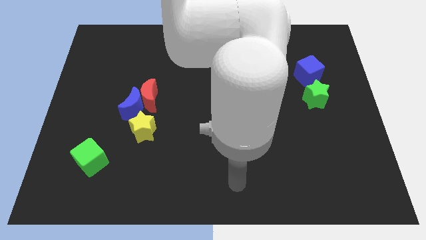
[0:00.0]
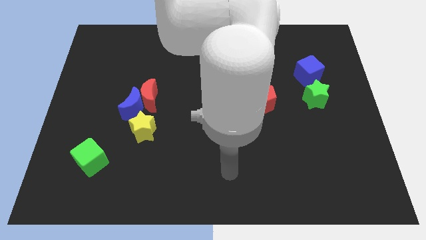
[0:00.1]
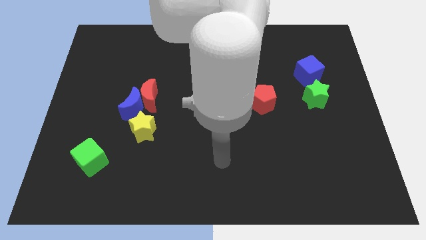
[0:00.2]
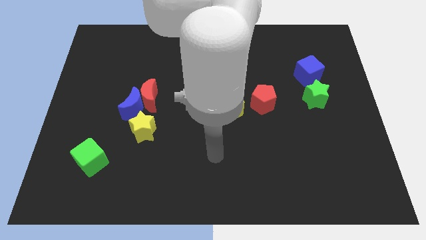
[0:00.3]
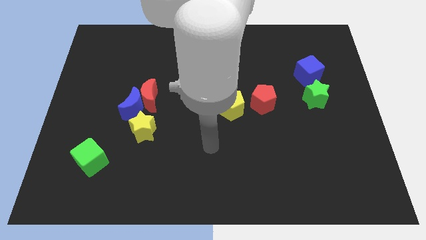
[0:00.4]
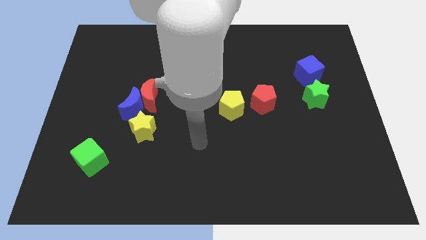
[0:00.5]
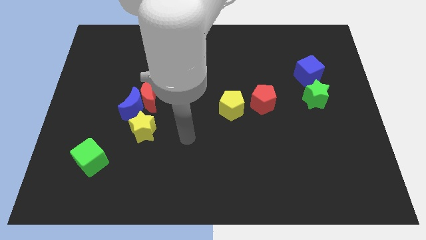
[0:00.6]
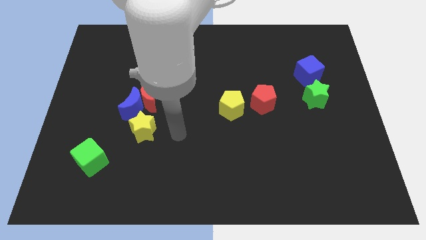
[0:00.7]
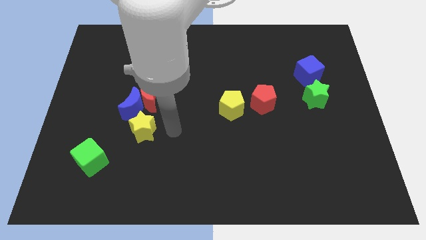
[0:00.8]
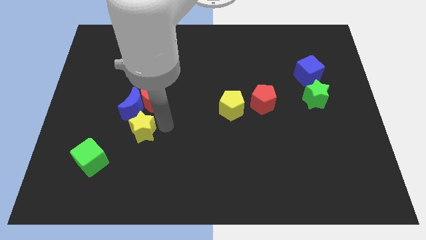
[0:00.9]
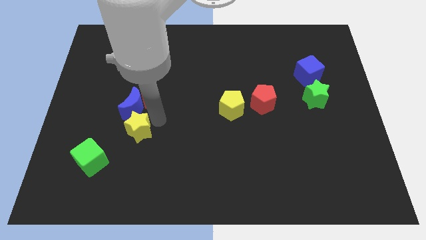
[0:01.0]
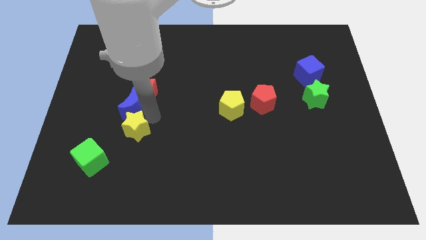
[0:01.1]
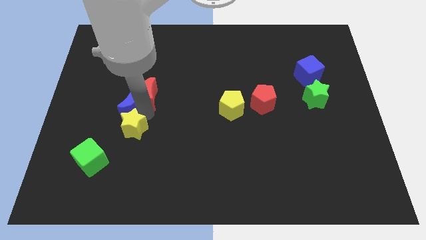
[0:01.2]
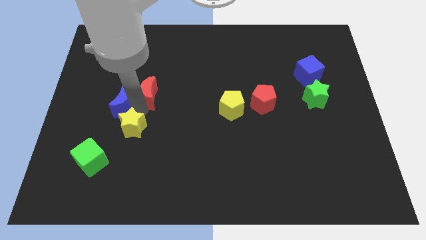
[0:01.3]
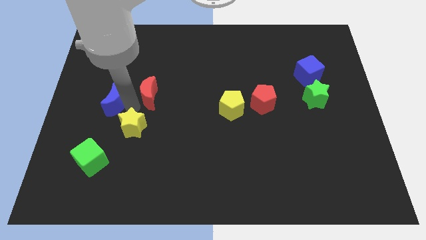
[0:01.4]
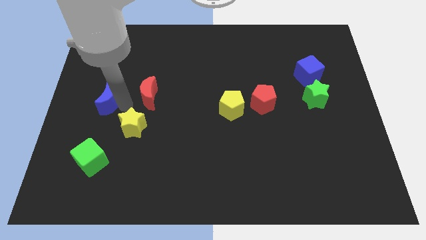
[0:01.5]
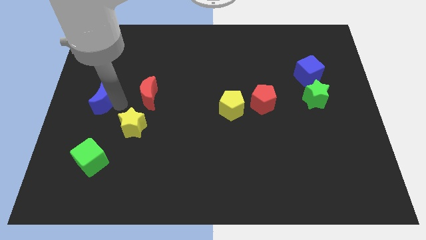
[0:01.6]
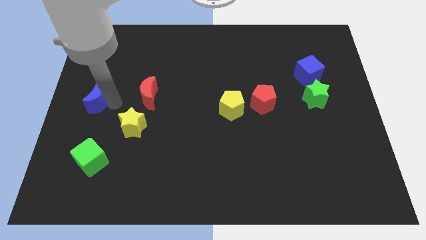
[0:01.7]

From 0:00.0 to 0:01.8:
pull the blue moon apart from the red moon and yellow star

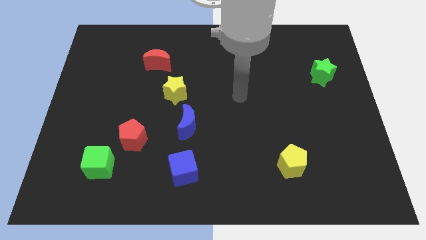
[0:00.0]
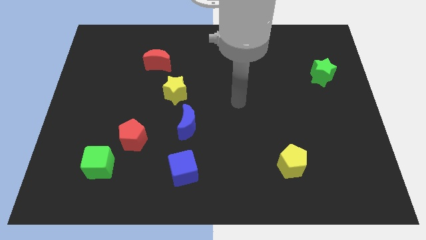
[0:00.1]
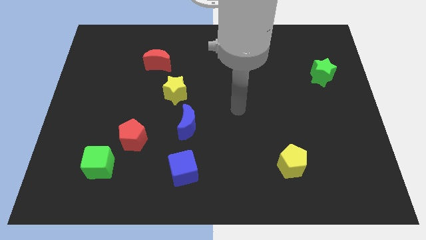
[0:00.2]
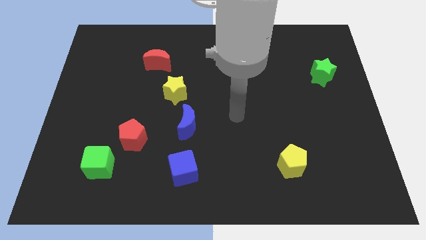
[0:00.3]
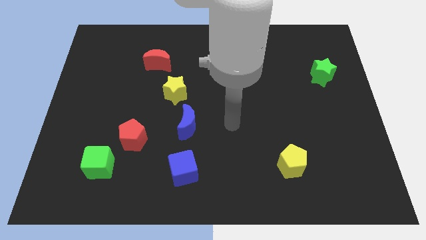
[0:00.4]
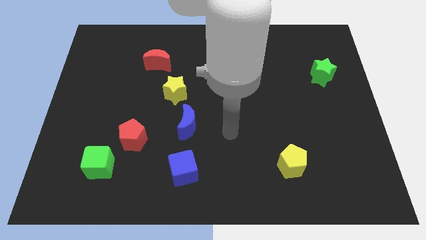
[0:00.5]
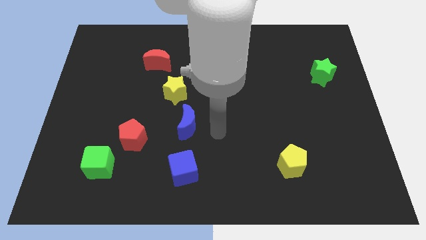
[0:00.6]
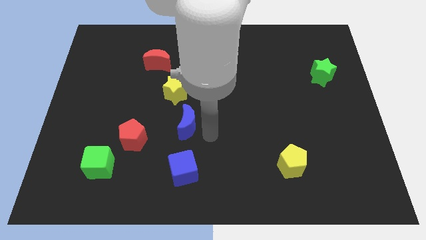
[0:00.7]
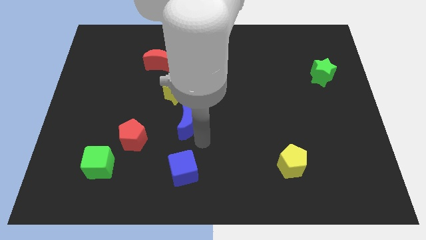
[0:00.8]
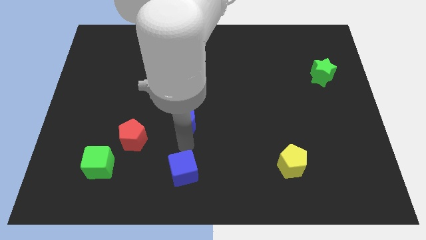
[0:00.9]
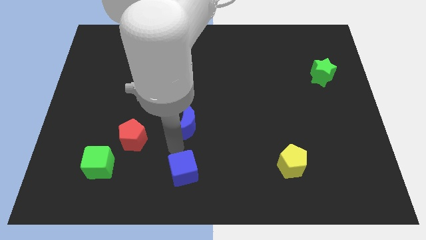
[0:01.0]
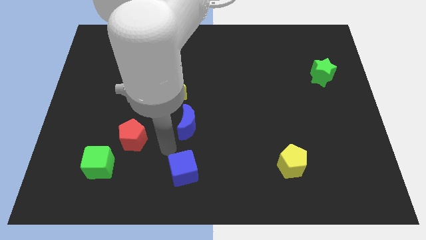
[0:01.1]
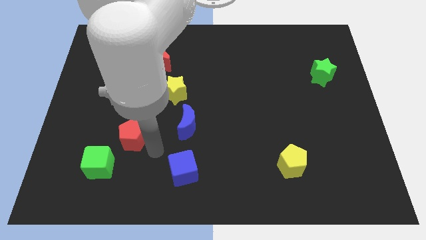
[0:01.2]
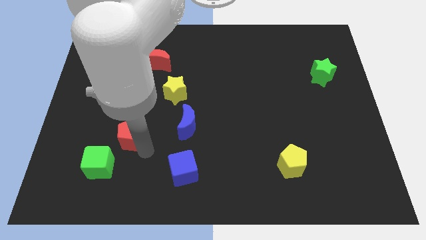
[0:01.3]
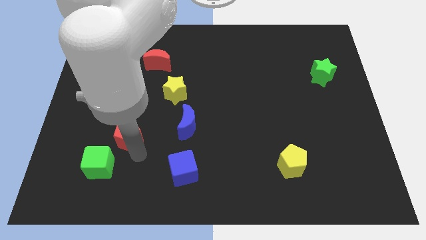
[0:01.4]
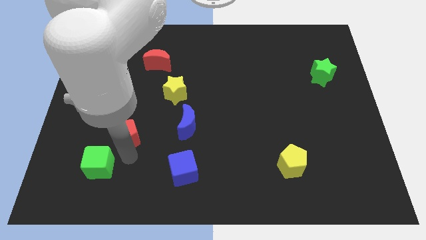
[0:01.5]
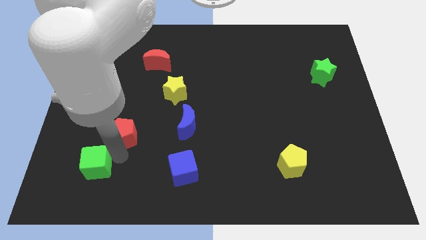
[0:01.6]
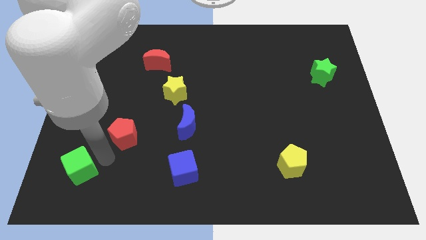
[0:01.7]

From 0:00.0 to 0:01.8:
separate the red pentagon from the green cube

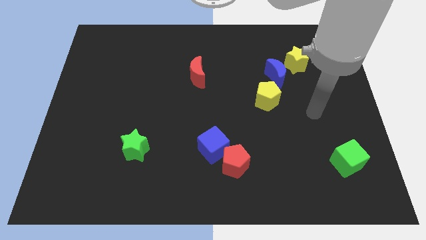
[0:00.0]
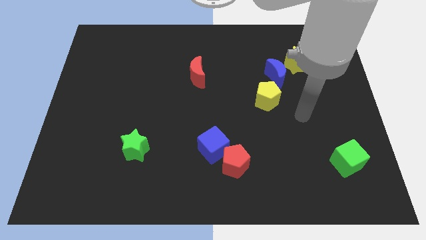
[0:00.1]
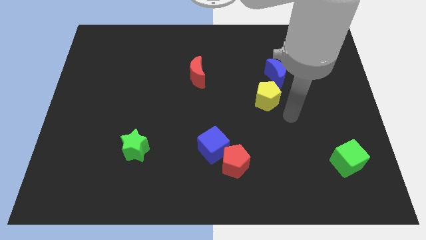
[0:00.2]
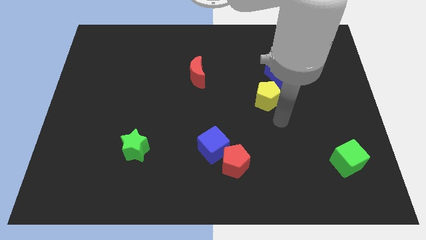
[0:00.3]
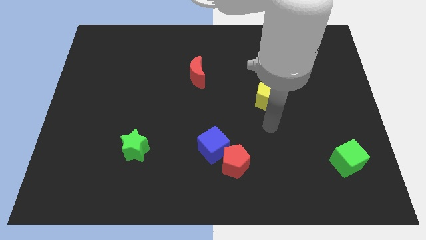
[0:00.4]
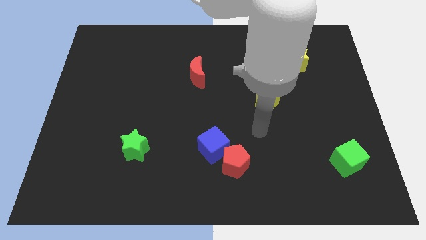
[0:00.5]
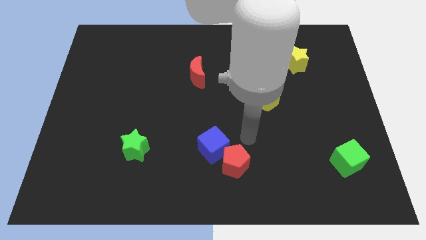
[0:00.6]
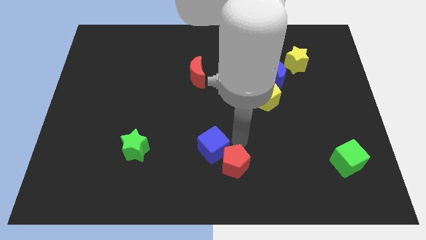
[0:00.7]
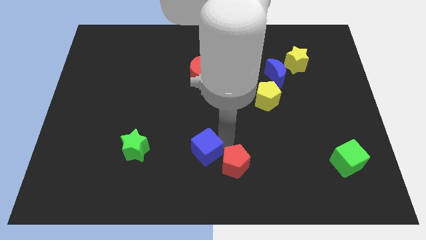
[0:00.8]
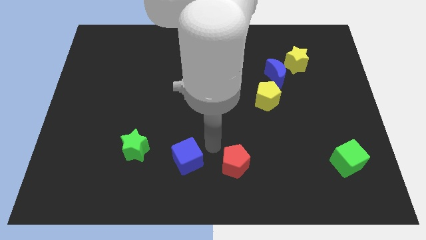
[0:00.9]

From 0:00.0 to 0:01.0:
separate the red pentagon from the blue cube

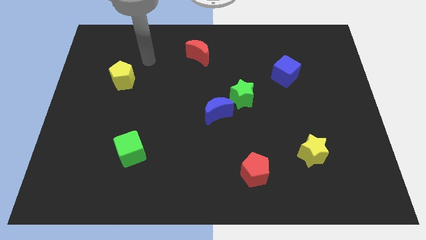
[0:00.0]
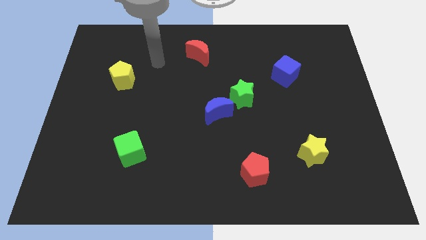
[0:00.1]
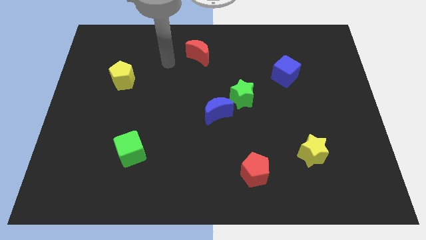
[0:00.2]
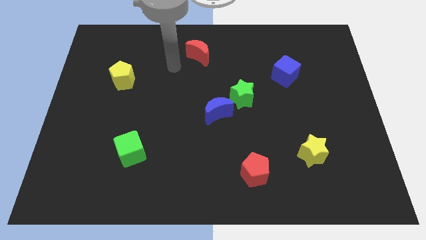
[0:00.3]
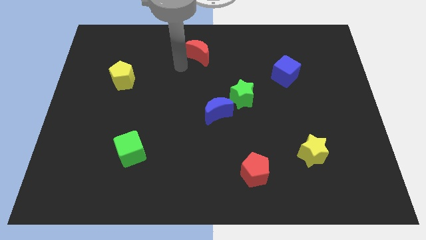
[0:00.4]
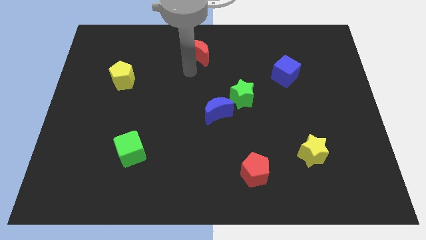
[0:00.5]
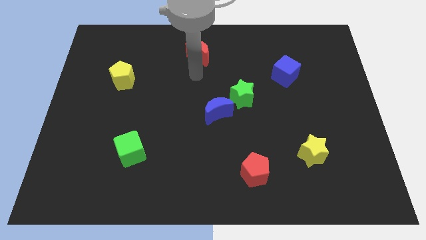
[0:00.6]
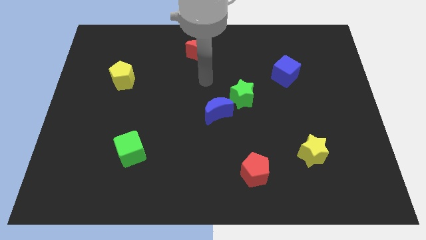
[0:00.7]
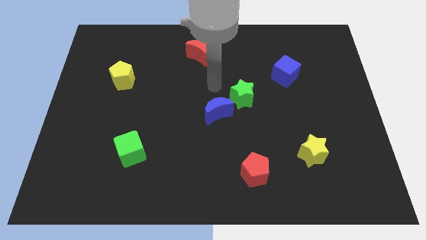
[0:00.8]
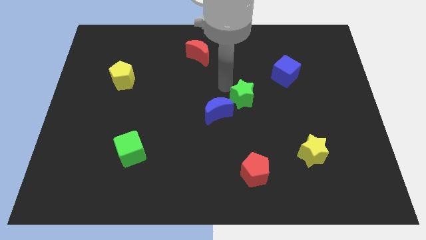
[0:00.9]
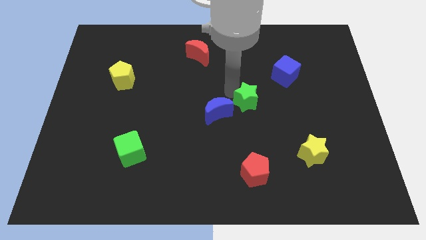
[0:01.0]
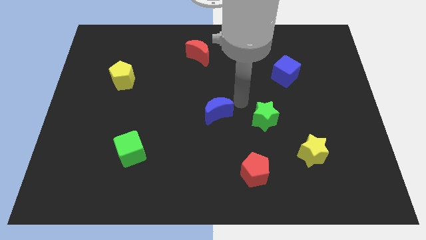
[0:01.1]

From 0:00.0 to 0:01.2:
move the blue moon away from the green star

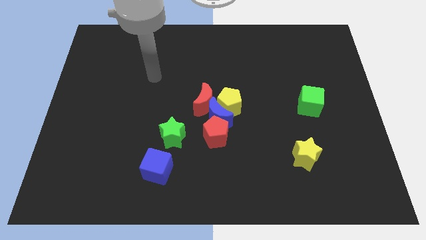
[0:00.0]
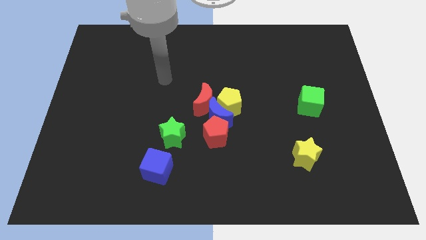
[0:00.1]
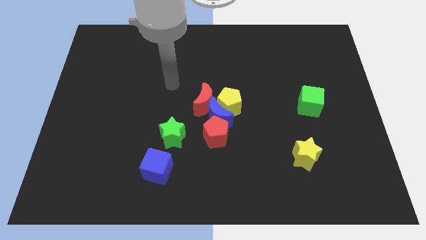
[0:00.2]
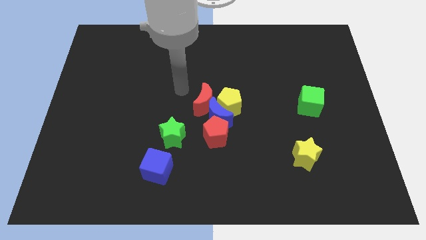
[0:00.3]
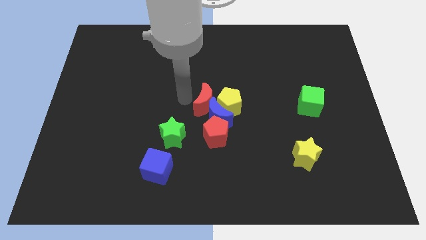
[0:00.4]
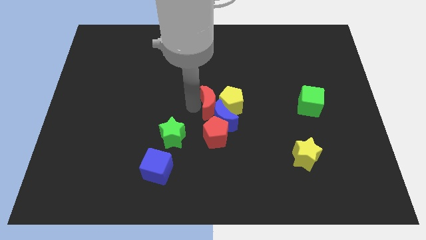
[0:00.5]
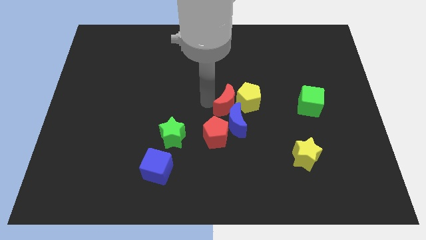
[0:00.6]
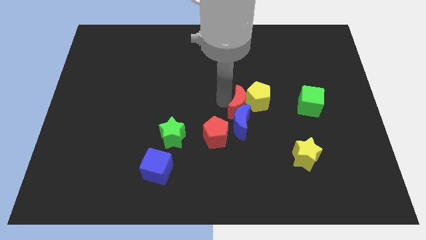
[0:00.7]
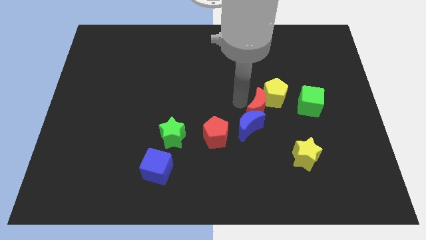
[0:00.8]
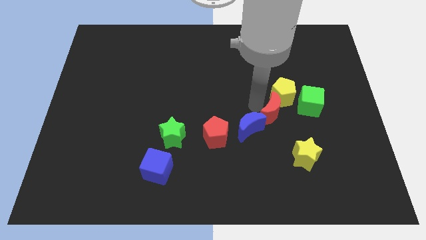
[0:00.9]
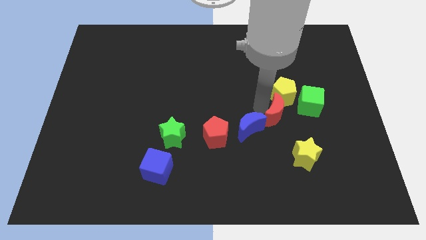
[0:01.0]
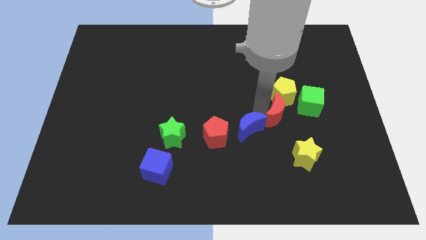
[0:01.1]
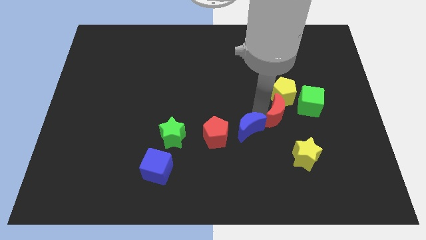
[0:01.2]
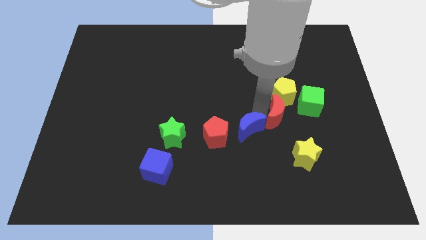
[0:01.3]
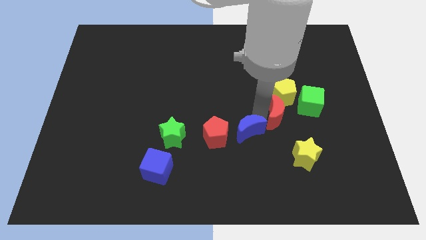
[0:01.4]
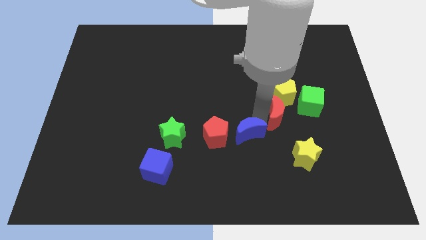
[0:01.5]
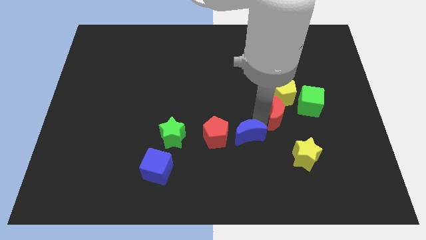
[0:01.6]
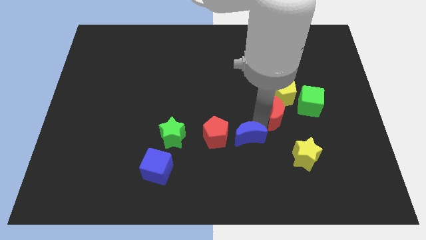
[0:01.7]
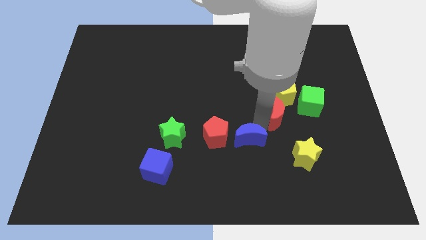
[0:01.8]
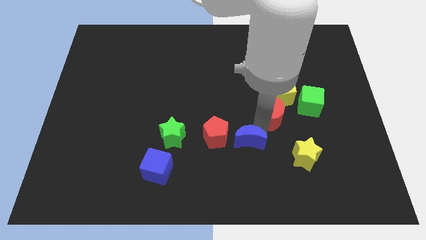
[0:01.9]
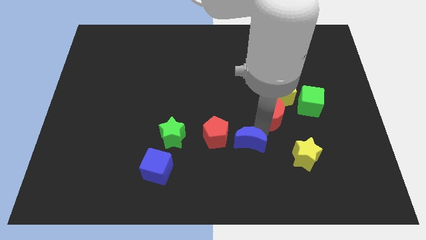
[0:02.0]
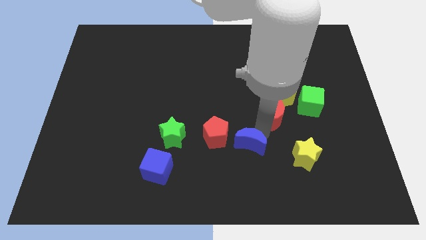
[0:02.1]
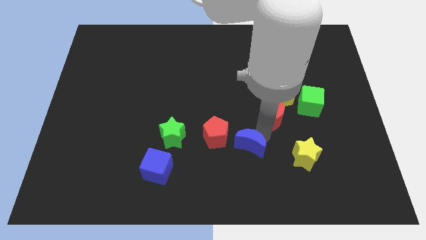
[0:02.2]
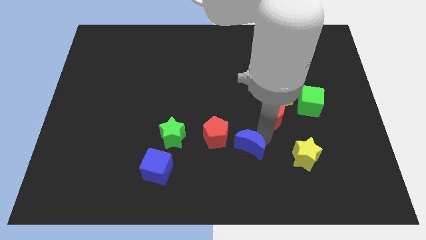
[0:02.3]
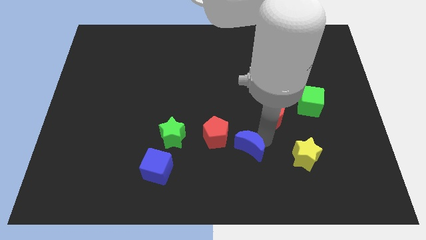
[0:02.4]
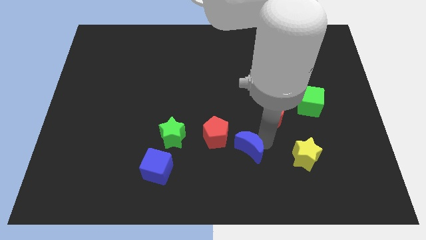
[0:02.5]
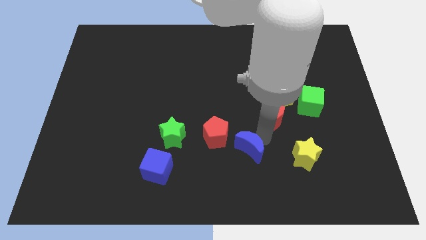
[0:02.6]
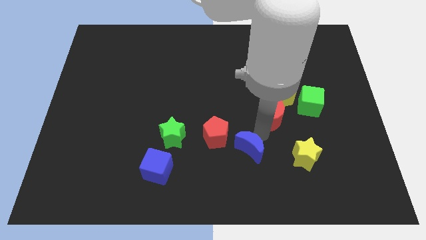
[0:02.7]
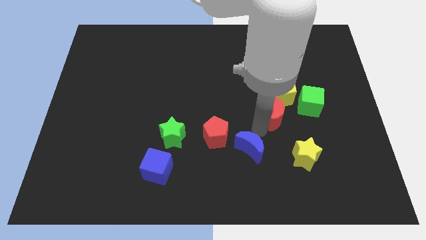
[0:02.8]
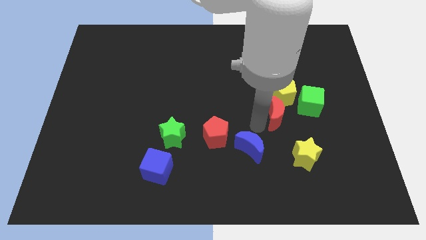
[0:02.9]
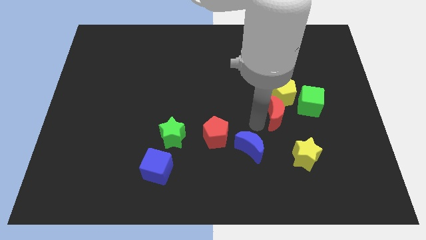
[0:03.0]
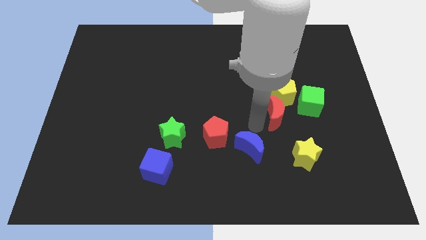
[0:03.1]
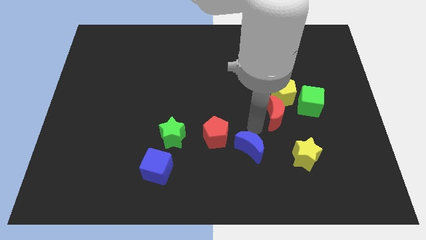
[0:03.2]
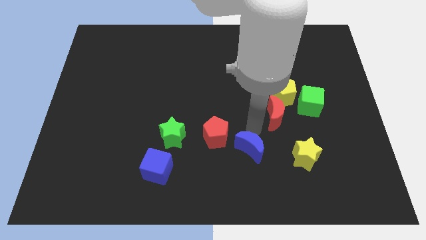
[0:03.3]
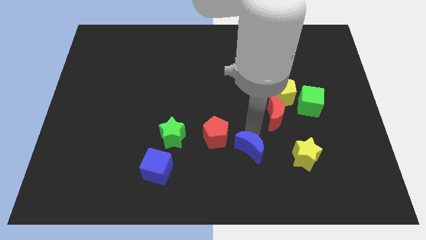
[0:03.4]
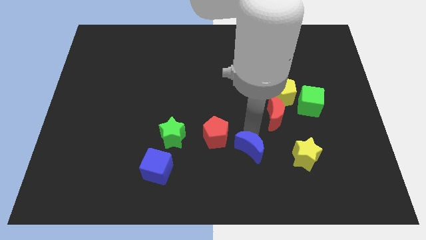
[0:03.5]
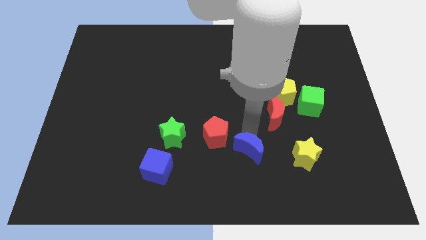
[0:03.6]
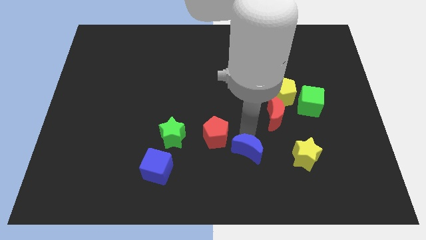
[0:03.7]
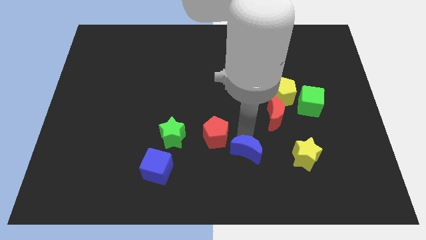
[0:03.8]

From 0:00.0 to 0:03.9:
move the blue moon away from the yellow pentagon, red pentagon, and red moon
